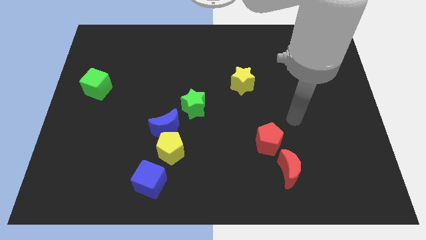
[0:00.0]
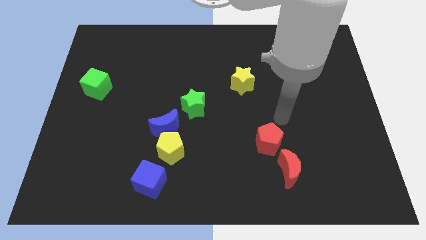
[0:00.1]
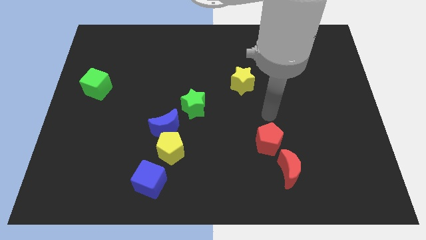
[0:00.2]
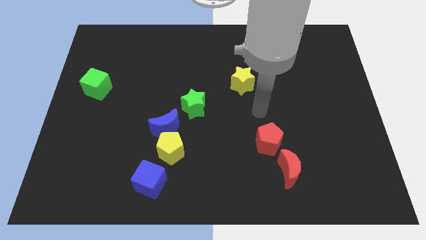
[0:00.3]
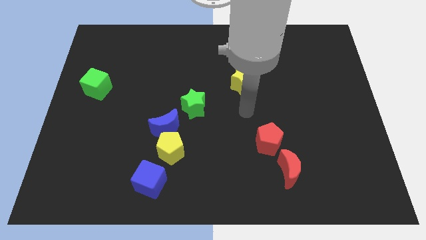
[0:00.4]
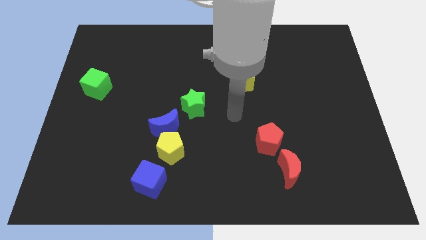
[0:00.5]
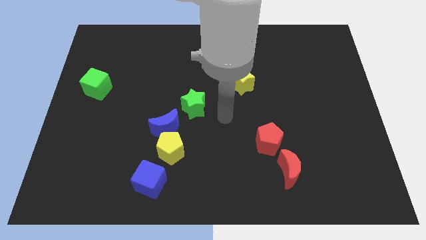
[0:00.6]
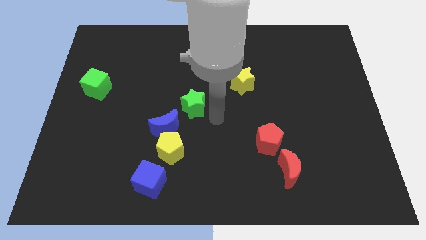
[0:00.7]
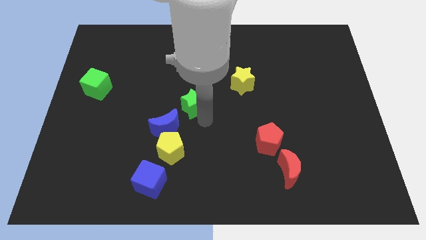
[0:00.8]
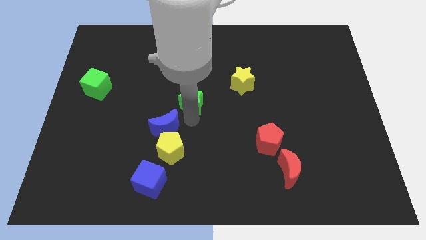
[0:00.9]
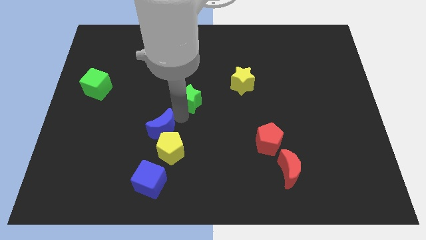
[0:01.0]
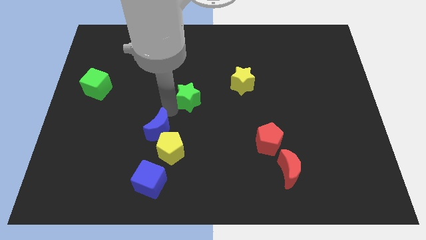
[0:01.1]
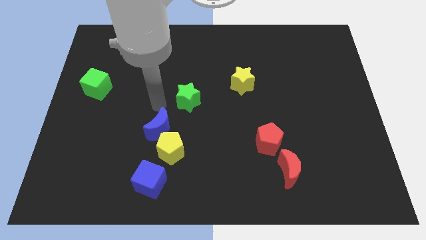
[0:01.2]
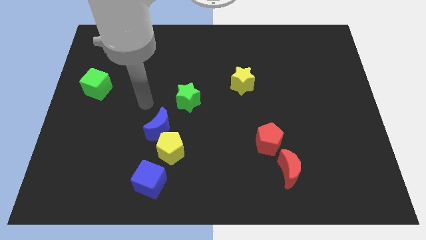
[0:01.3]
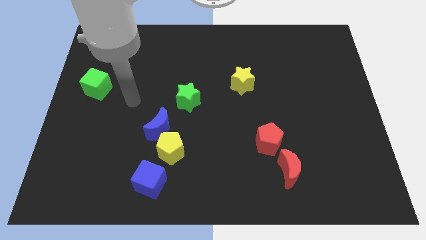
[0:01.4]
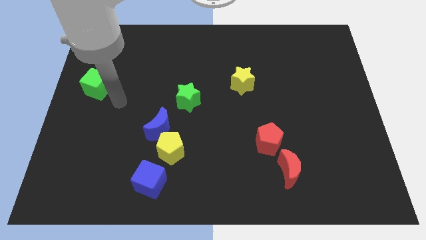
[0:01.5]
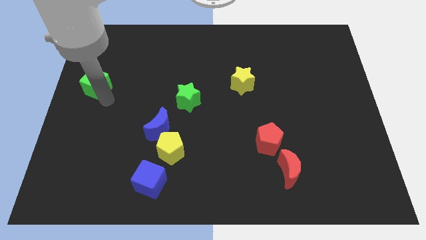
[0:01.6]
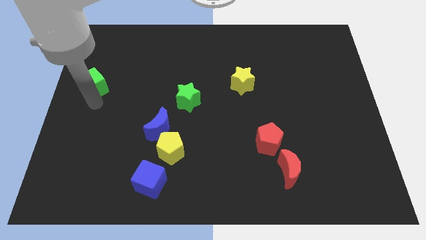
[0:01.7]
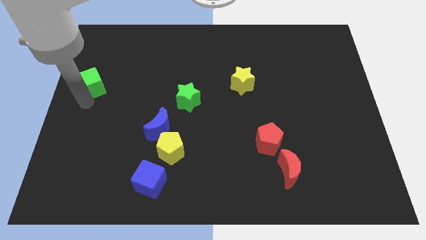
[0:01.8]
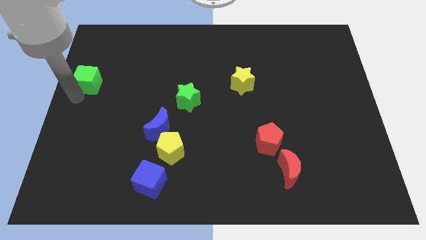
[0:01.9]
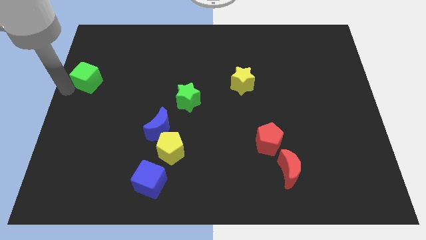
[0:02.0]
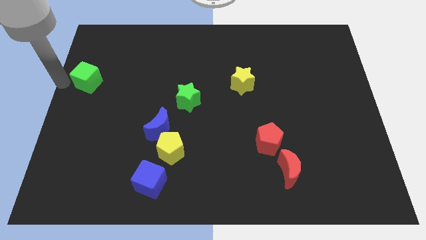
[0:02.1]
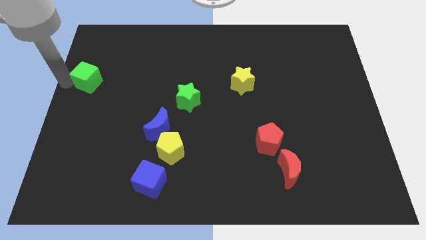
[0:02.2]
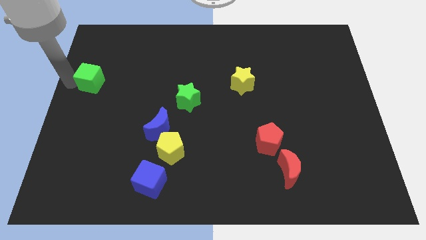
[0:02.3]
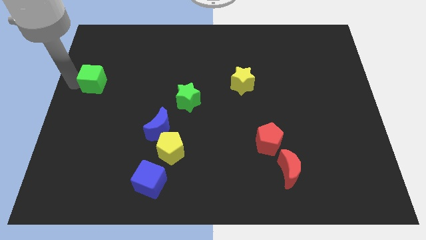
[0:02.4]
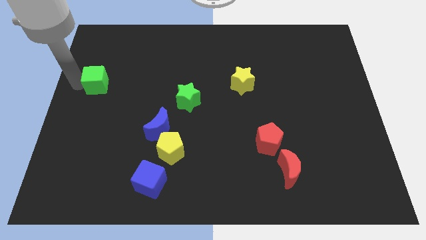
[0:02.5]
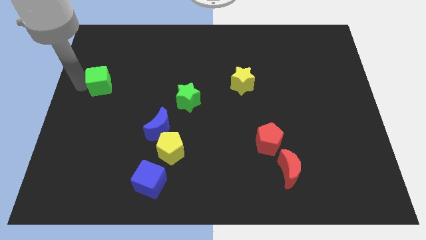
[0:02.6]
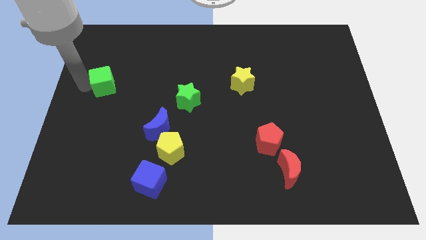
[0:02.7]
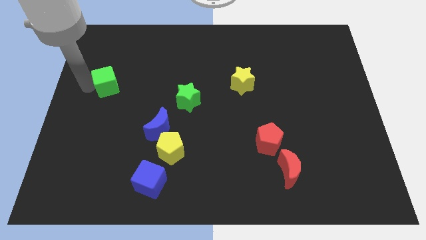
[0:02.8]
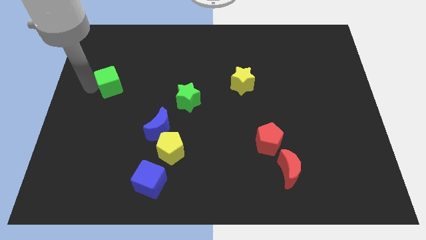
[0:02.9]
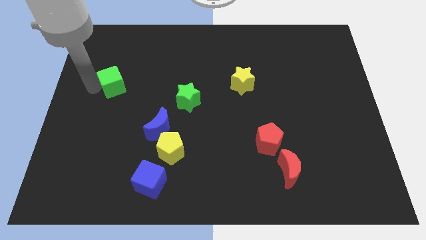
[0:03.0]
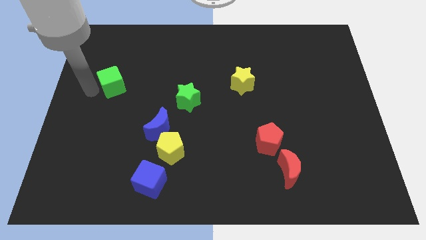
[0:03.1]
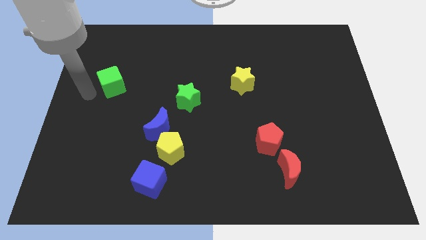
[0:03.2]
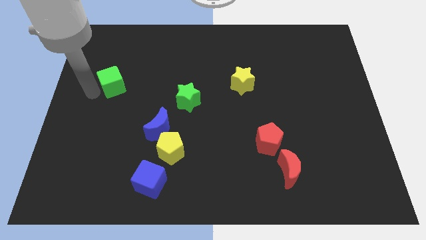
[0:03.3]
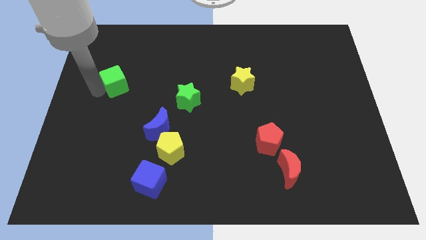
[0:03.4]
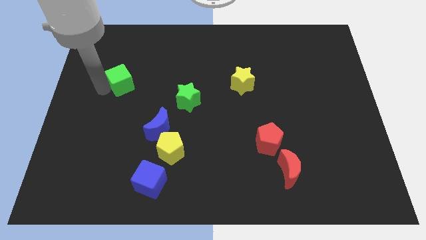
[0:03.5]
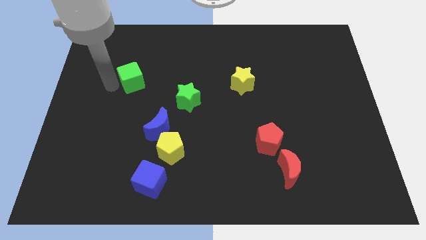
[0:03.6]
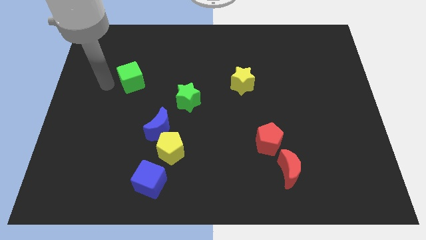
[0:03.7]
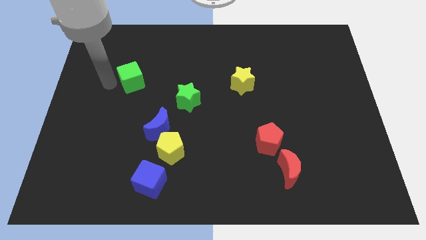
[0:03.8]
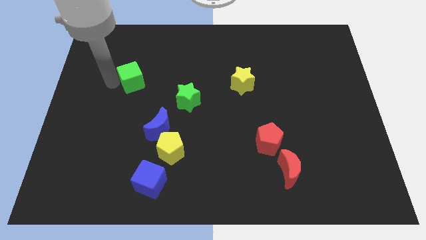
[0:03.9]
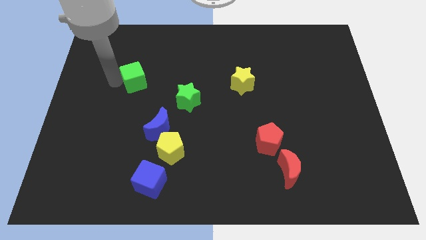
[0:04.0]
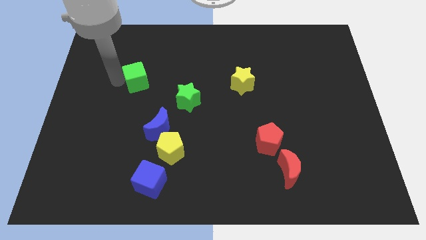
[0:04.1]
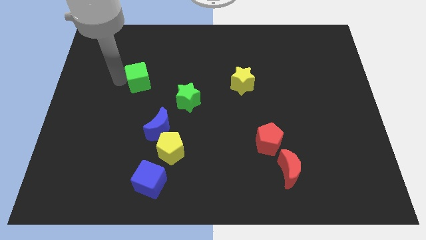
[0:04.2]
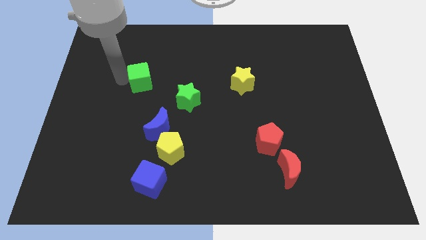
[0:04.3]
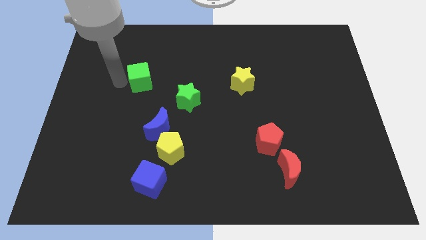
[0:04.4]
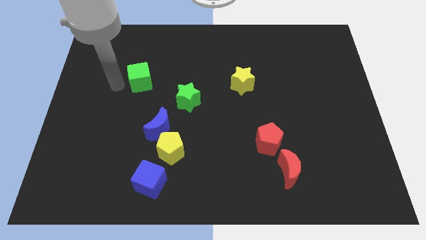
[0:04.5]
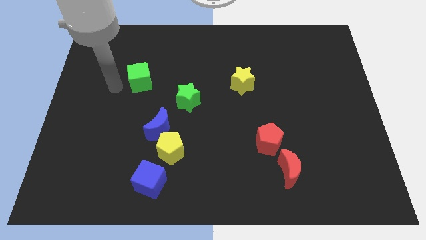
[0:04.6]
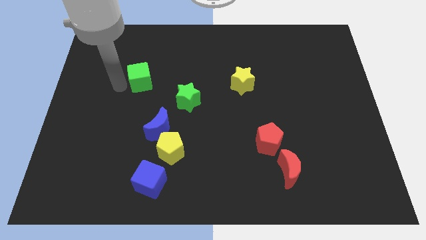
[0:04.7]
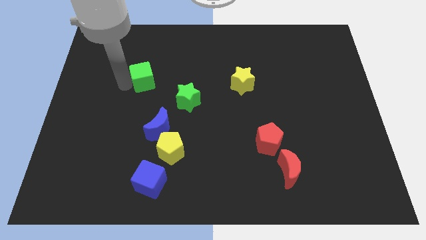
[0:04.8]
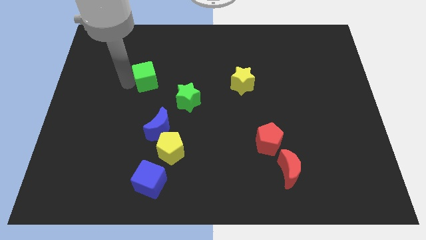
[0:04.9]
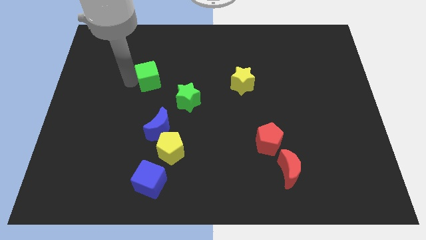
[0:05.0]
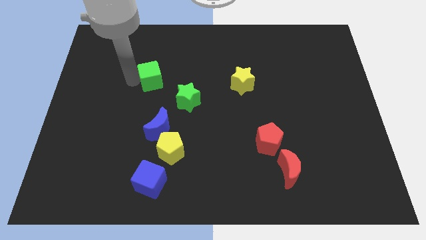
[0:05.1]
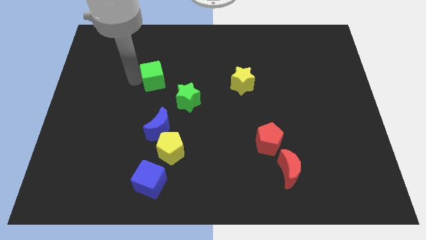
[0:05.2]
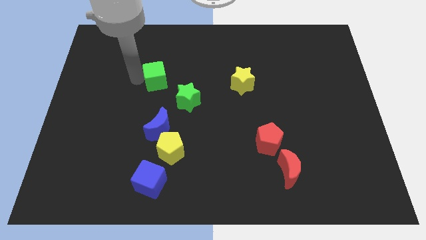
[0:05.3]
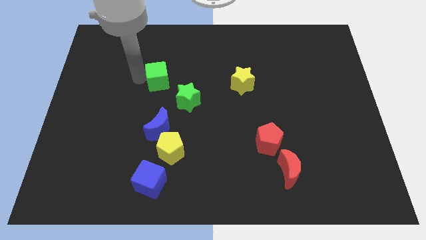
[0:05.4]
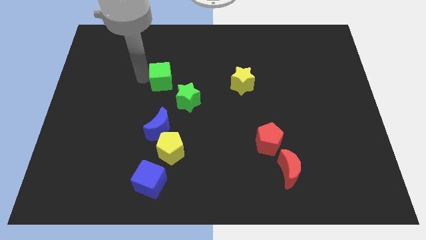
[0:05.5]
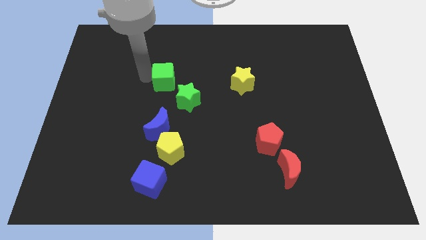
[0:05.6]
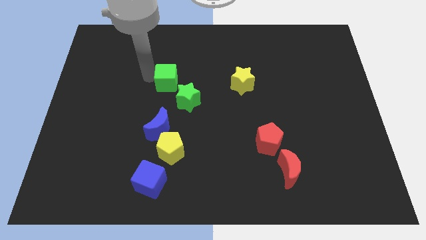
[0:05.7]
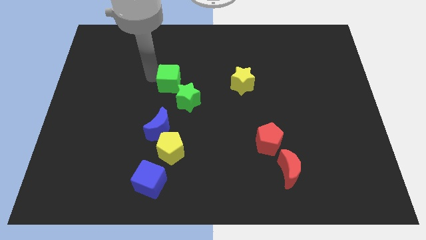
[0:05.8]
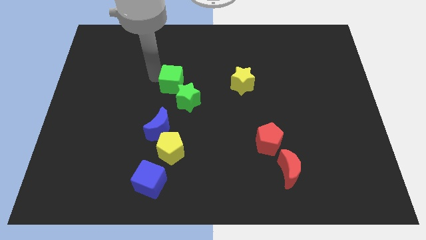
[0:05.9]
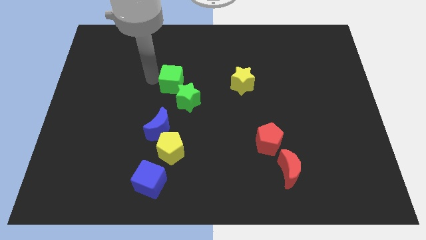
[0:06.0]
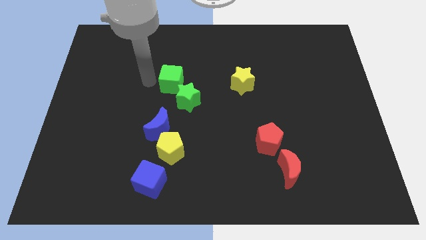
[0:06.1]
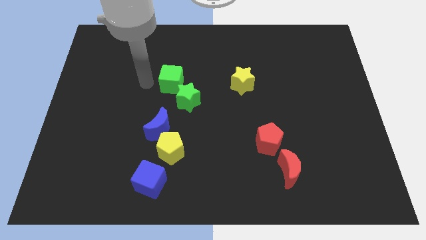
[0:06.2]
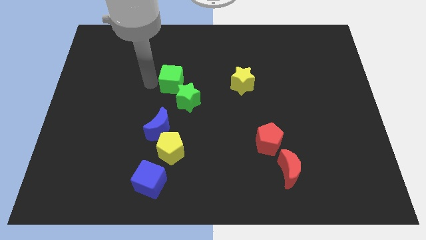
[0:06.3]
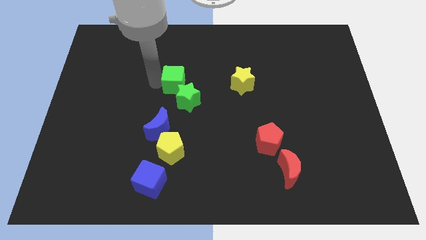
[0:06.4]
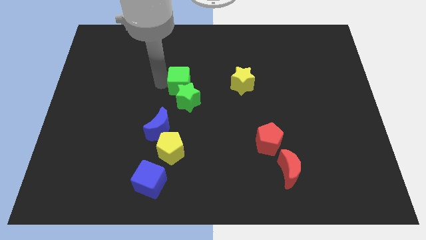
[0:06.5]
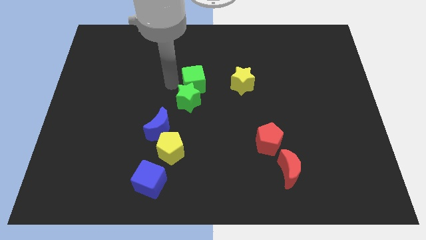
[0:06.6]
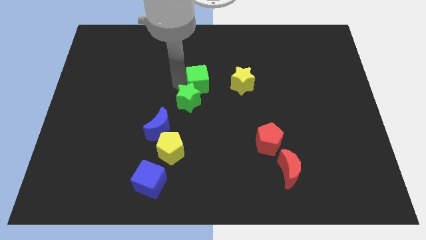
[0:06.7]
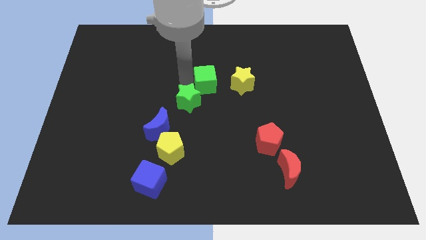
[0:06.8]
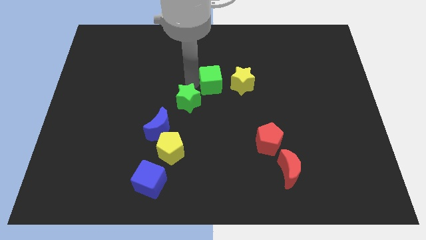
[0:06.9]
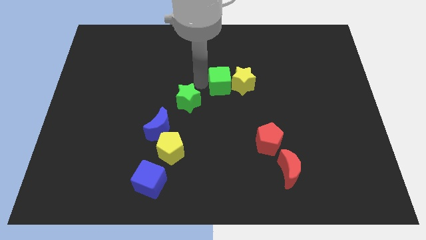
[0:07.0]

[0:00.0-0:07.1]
push the green cube to the yellow star
